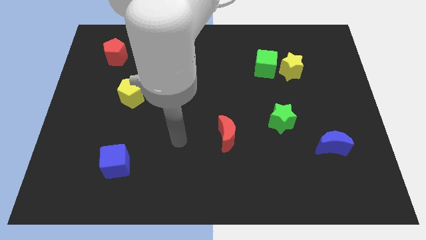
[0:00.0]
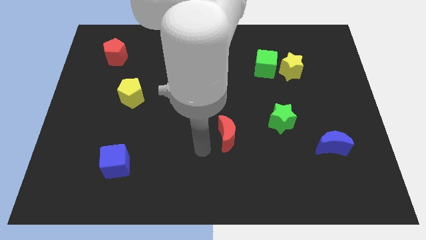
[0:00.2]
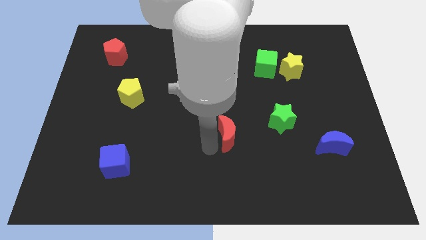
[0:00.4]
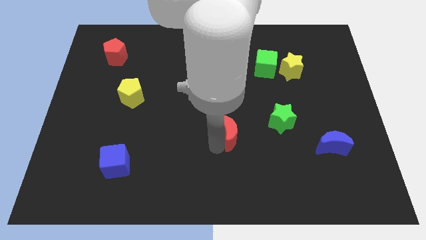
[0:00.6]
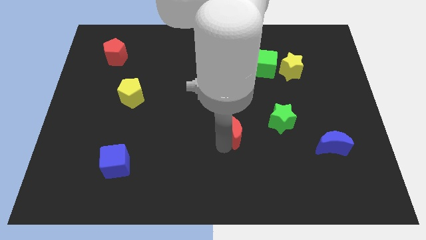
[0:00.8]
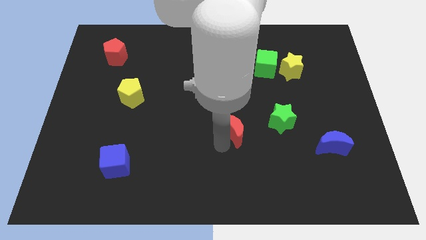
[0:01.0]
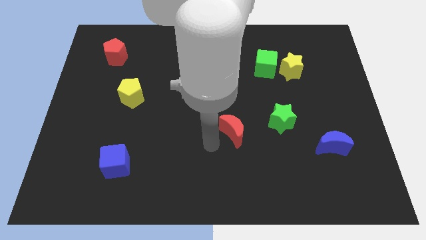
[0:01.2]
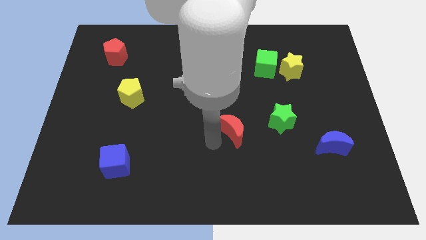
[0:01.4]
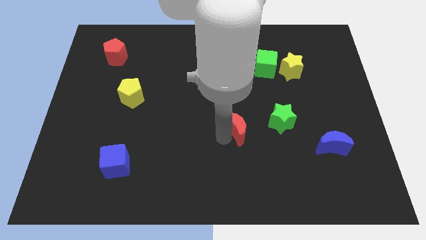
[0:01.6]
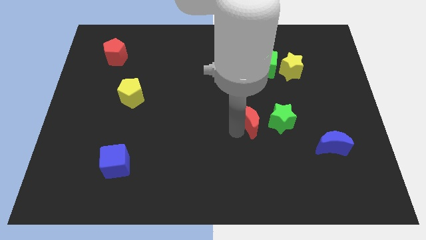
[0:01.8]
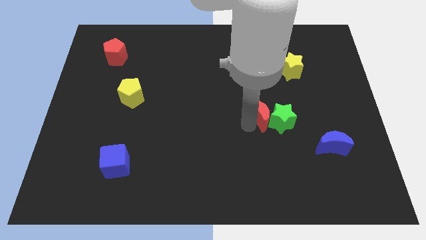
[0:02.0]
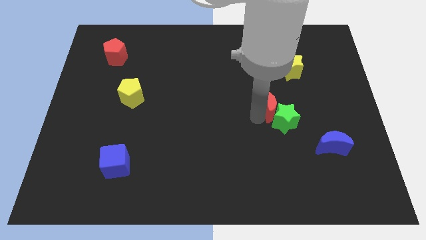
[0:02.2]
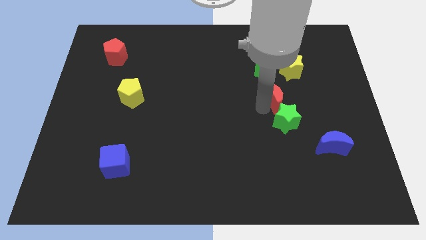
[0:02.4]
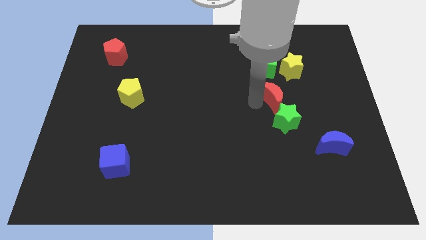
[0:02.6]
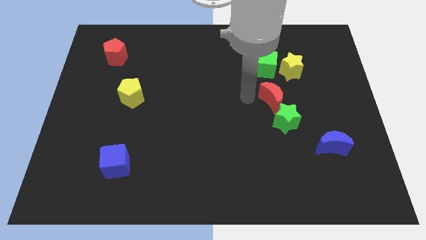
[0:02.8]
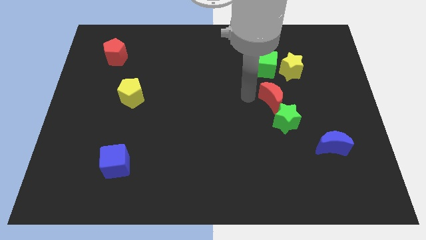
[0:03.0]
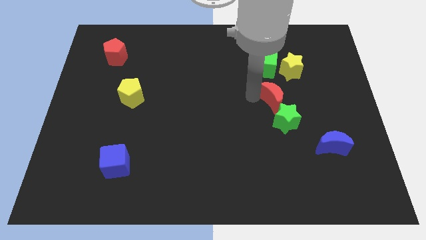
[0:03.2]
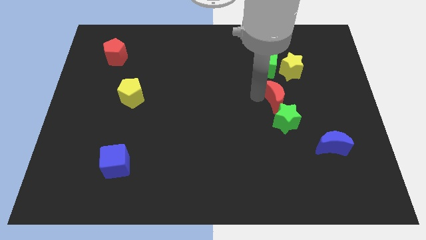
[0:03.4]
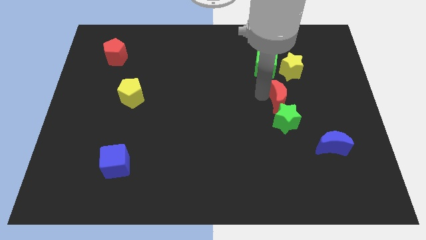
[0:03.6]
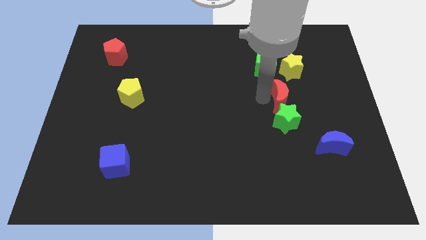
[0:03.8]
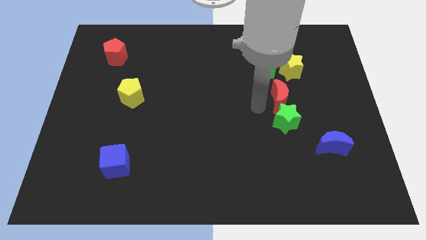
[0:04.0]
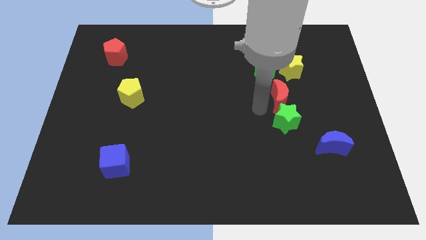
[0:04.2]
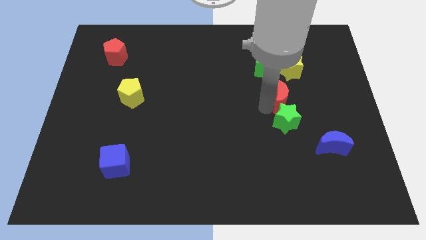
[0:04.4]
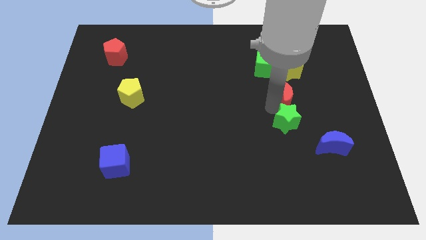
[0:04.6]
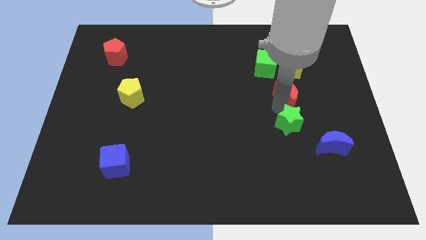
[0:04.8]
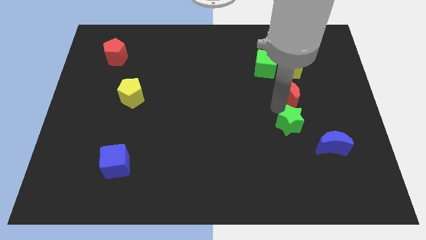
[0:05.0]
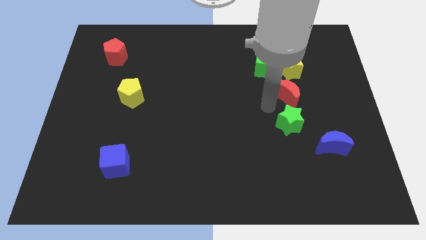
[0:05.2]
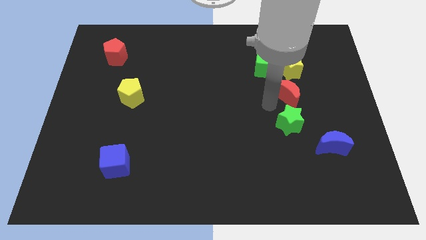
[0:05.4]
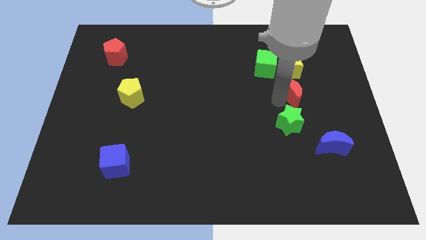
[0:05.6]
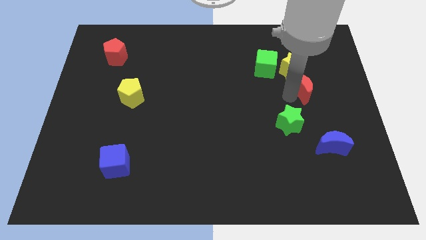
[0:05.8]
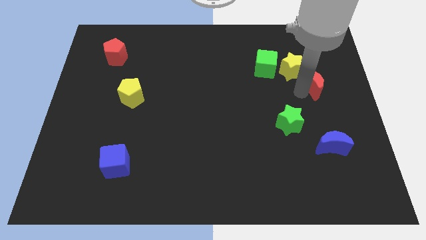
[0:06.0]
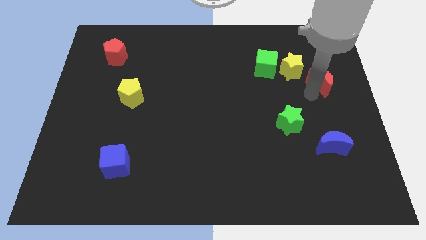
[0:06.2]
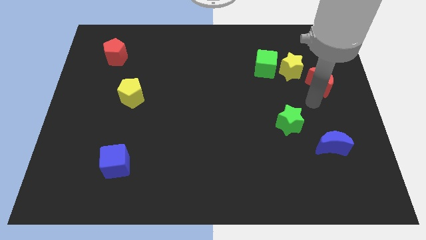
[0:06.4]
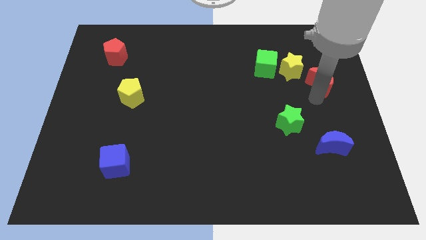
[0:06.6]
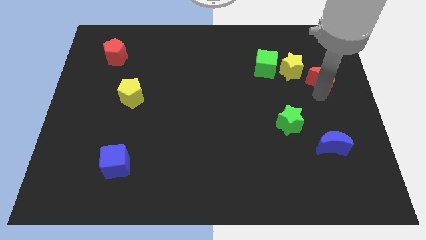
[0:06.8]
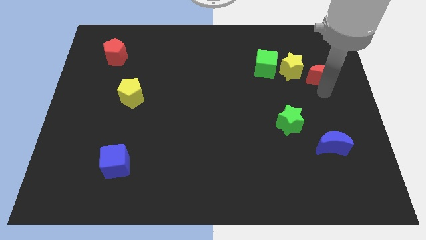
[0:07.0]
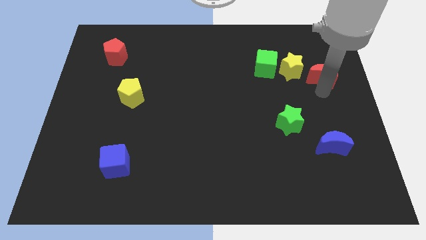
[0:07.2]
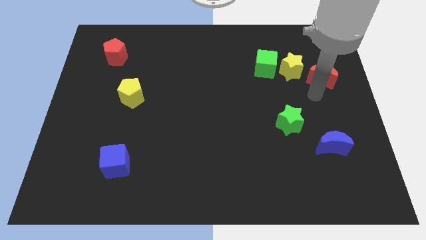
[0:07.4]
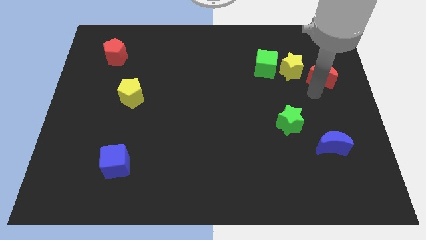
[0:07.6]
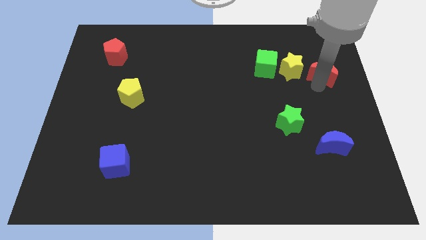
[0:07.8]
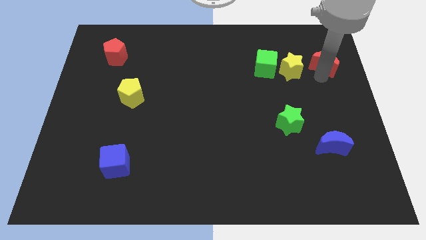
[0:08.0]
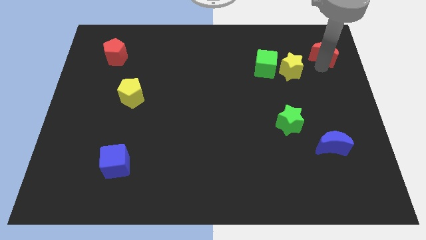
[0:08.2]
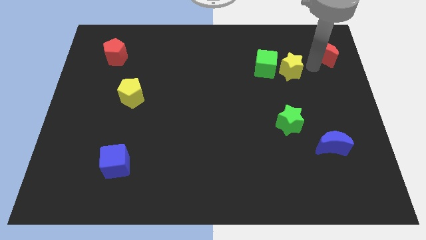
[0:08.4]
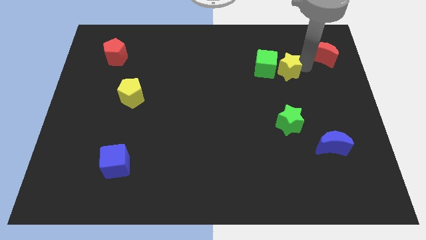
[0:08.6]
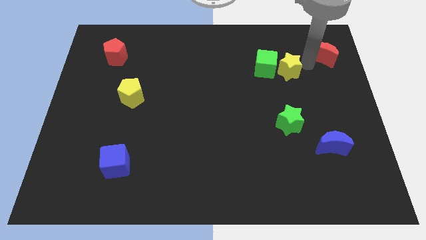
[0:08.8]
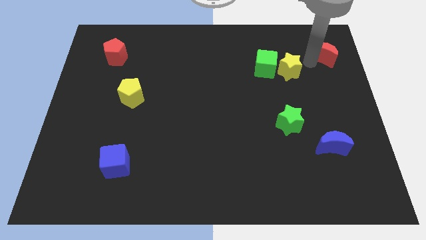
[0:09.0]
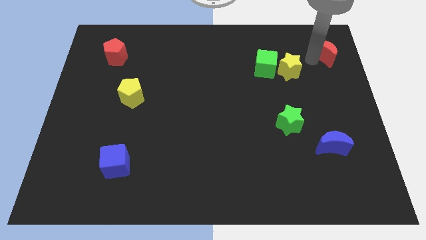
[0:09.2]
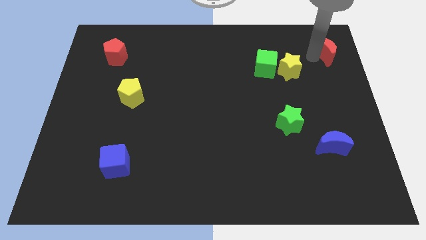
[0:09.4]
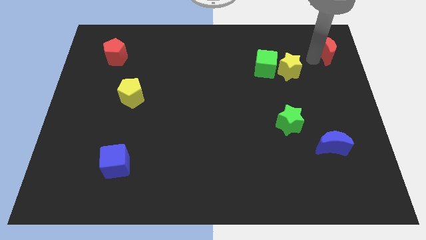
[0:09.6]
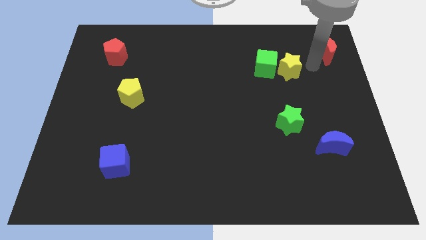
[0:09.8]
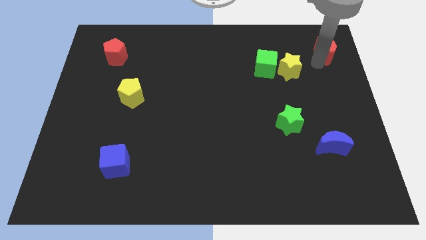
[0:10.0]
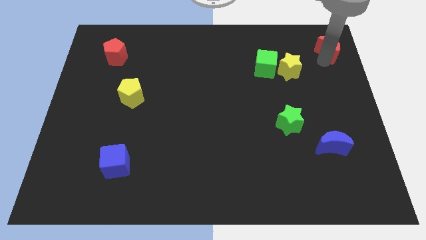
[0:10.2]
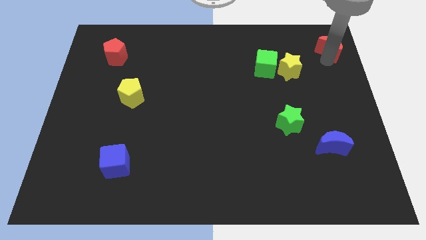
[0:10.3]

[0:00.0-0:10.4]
put the red moon to the top right corner

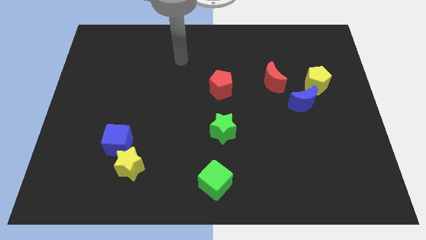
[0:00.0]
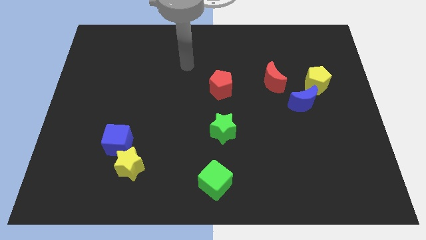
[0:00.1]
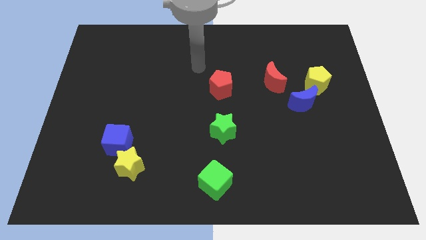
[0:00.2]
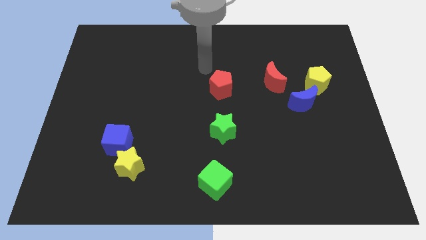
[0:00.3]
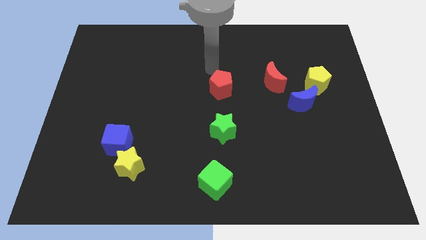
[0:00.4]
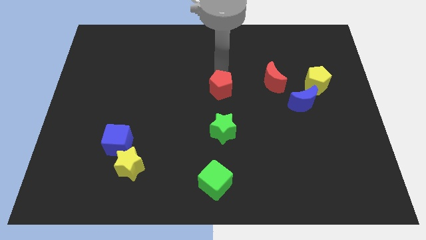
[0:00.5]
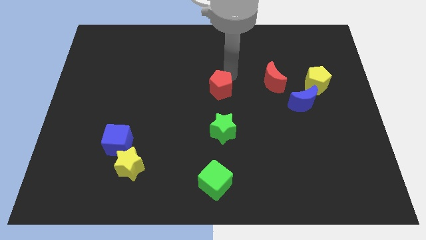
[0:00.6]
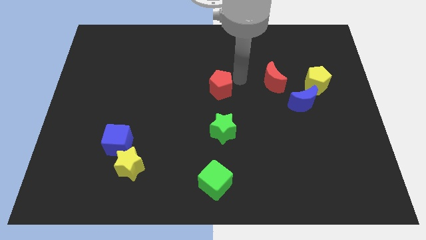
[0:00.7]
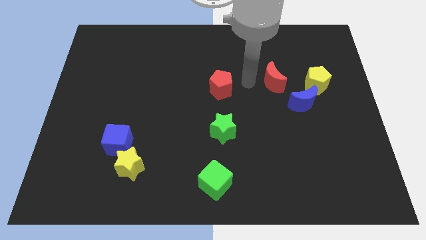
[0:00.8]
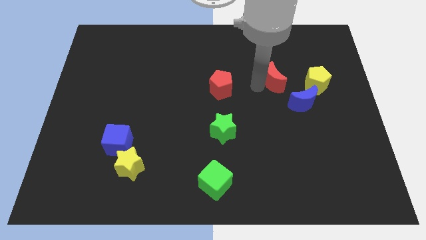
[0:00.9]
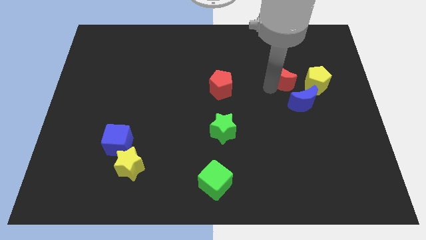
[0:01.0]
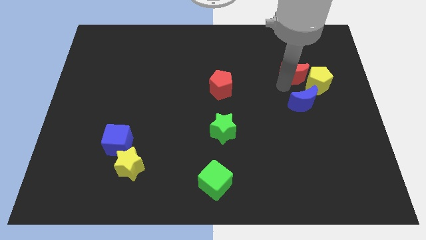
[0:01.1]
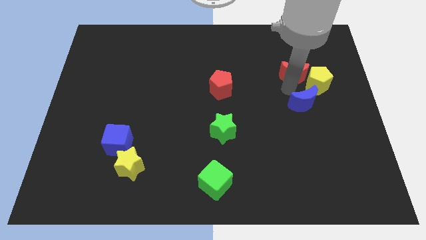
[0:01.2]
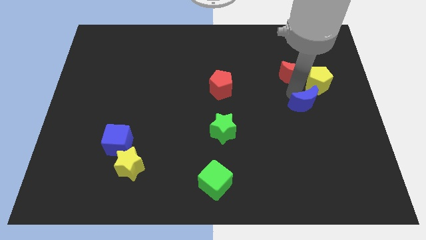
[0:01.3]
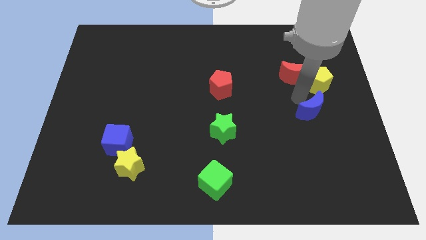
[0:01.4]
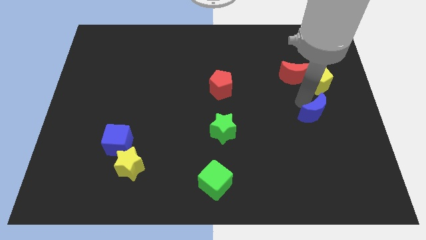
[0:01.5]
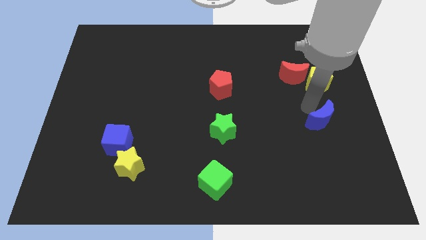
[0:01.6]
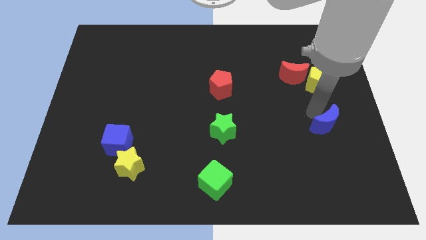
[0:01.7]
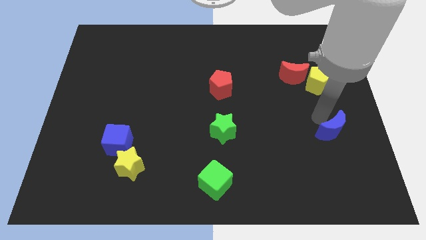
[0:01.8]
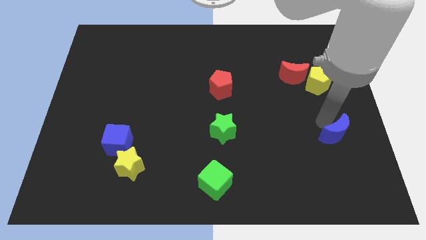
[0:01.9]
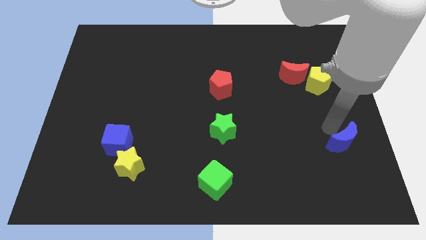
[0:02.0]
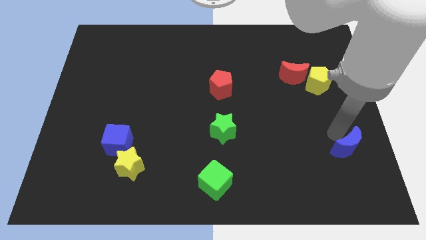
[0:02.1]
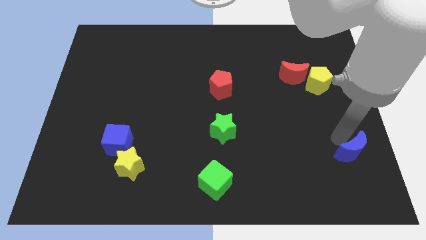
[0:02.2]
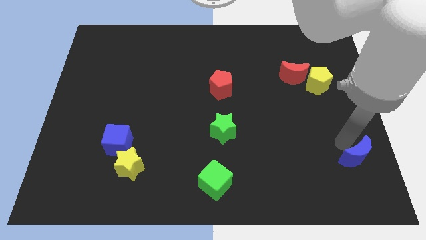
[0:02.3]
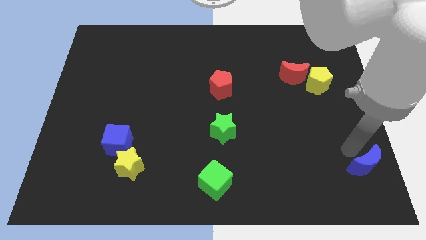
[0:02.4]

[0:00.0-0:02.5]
slide the blue moon to the bottom right of the board
